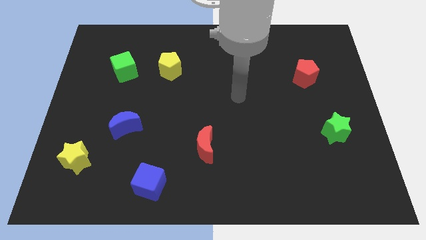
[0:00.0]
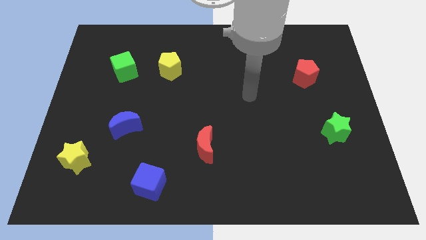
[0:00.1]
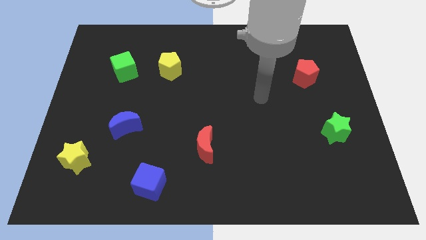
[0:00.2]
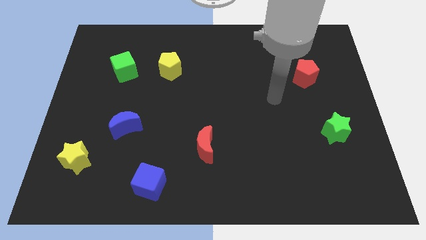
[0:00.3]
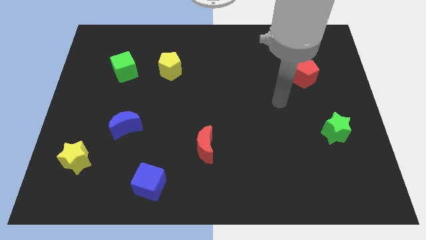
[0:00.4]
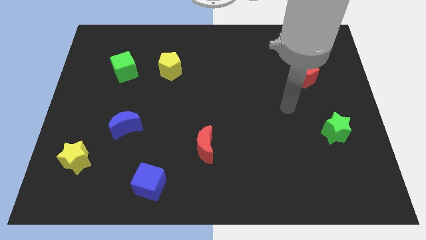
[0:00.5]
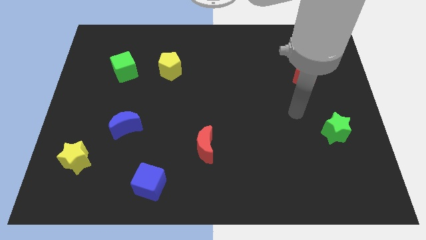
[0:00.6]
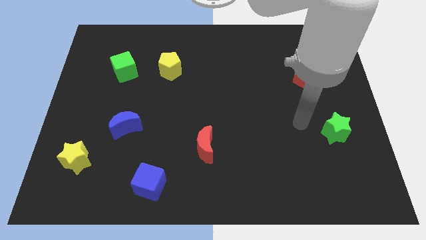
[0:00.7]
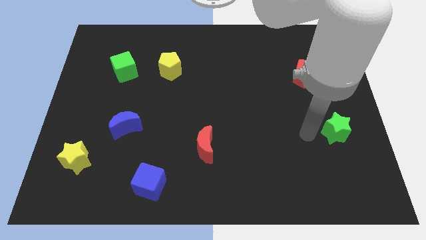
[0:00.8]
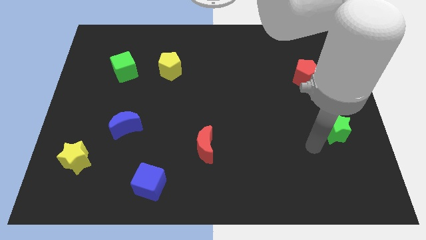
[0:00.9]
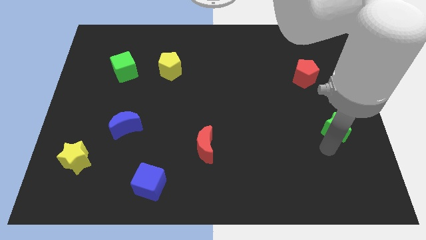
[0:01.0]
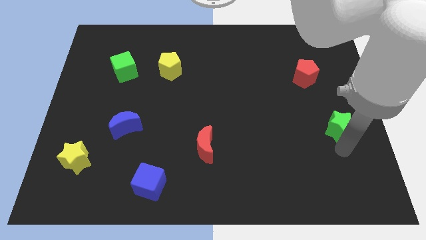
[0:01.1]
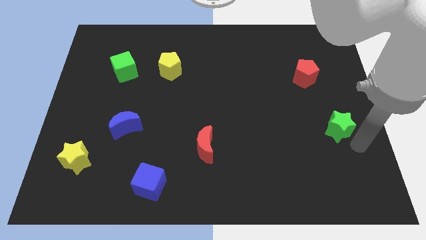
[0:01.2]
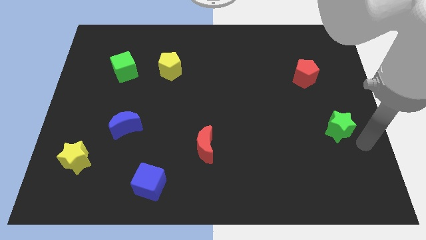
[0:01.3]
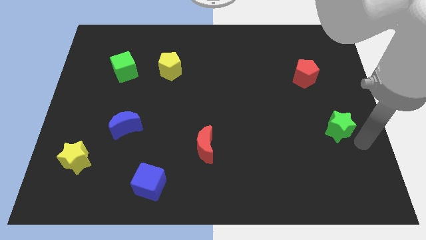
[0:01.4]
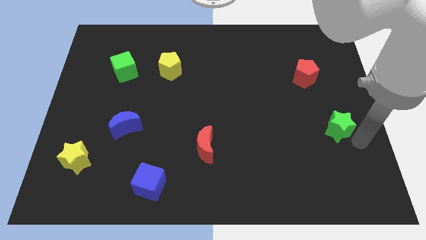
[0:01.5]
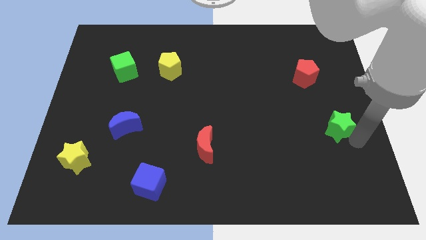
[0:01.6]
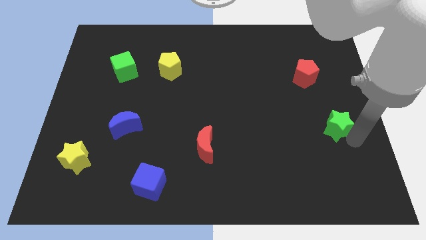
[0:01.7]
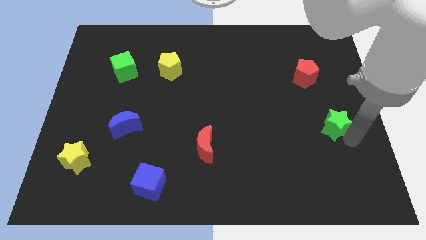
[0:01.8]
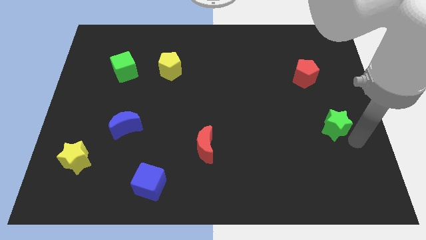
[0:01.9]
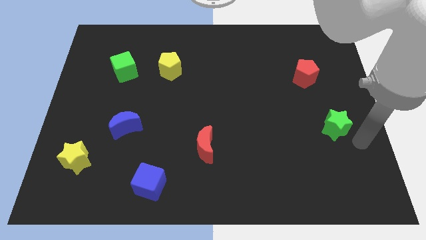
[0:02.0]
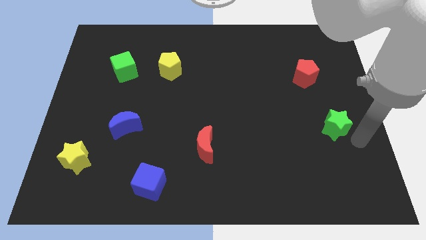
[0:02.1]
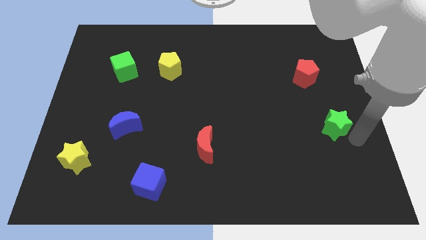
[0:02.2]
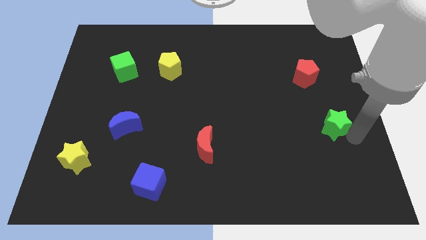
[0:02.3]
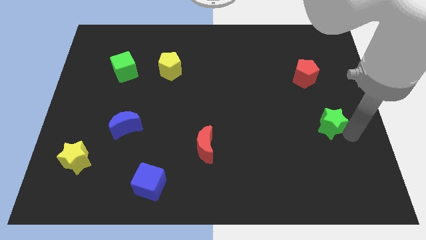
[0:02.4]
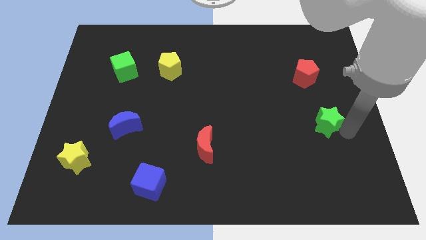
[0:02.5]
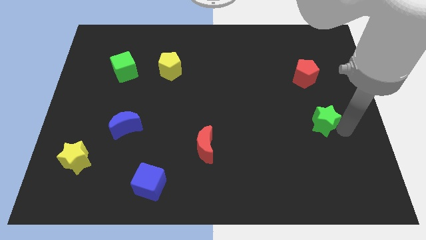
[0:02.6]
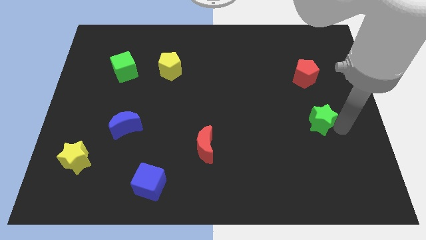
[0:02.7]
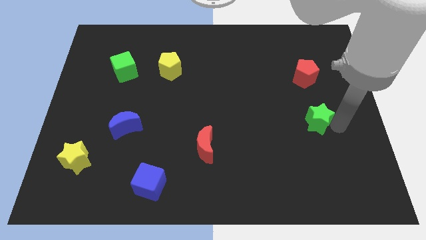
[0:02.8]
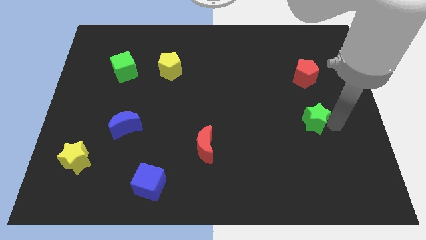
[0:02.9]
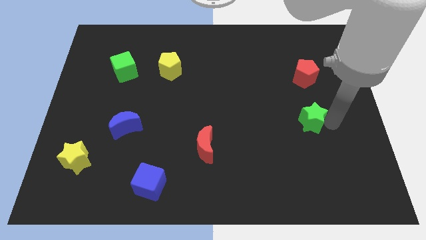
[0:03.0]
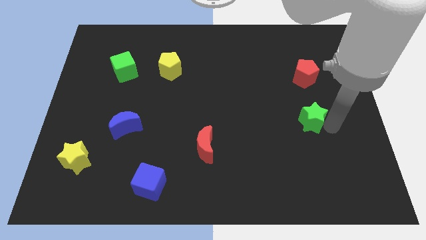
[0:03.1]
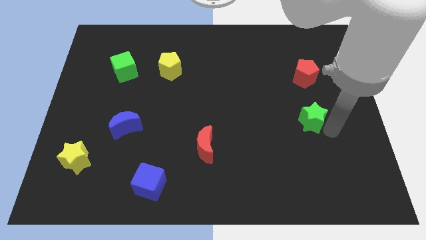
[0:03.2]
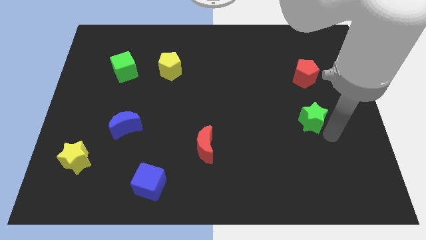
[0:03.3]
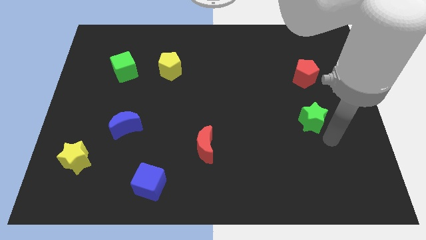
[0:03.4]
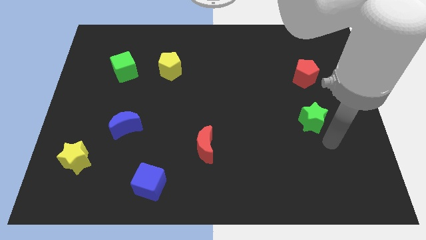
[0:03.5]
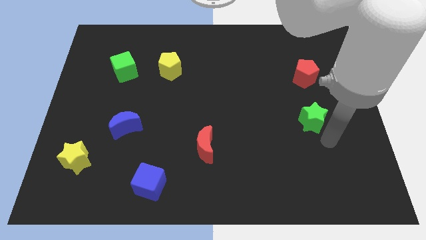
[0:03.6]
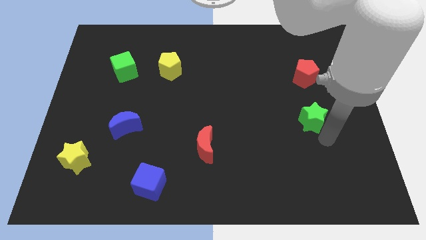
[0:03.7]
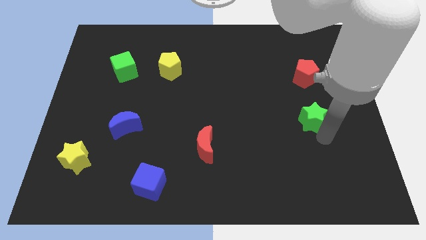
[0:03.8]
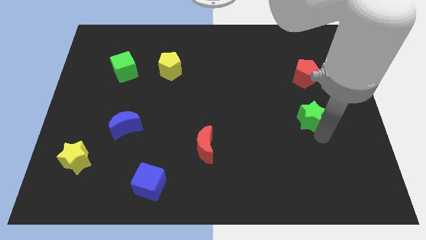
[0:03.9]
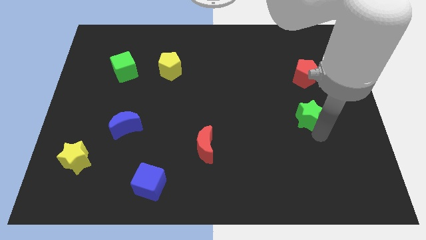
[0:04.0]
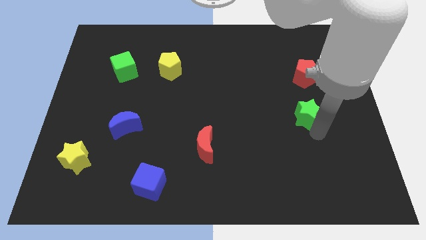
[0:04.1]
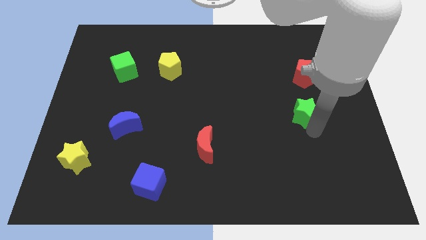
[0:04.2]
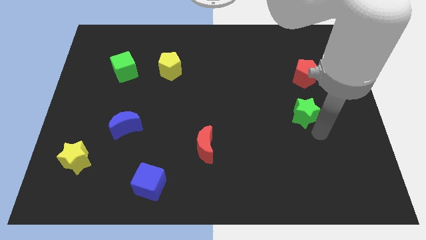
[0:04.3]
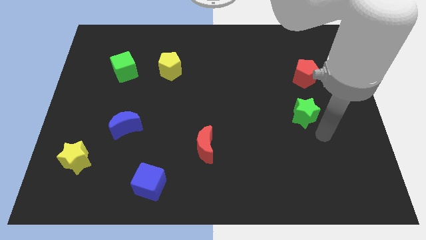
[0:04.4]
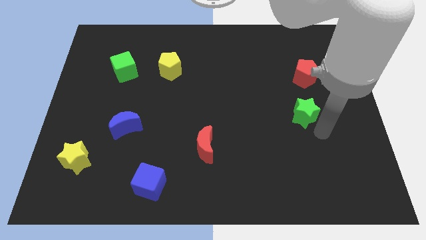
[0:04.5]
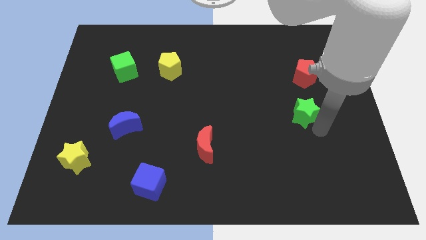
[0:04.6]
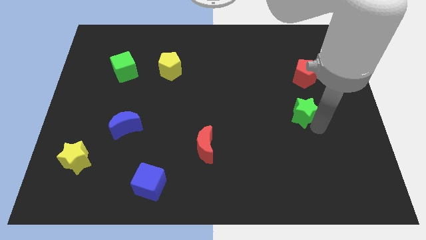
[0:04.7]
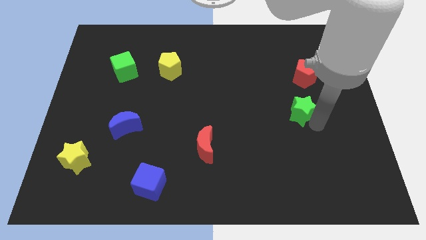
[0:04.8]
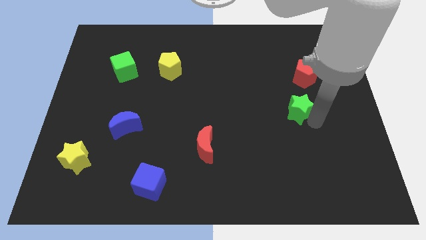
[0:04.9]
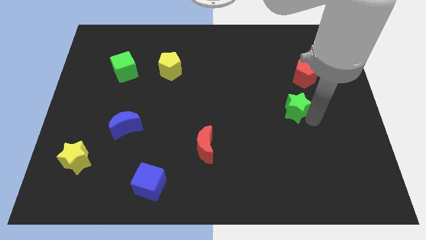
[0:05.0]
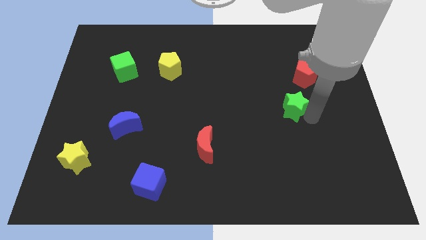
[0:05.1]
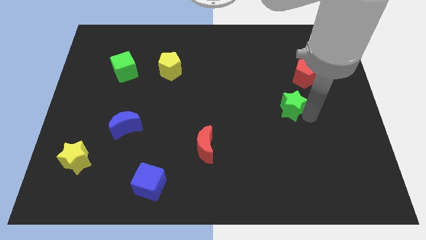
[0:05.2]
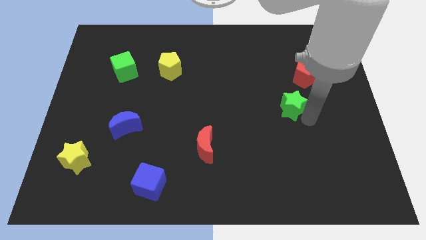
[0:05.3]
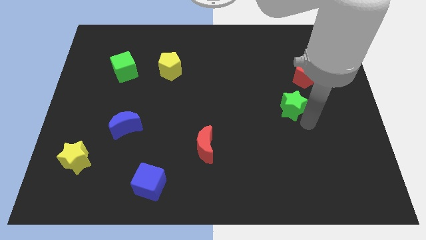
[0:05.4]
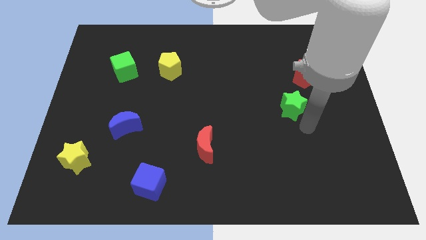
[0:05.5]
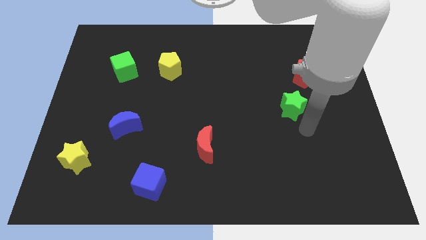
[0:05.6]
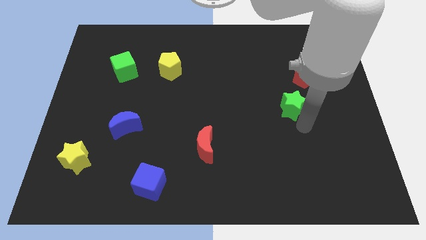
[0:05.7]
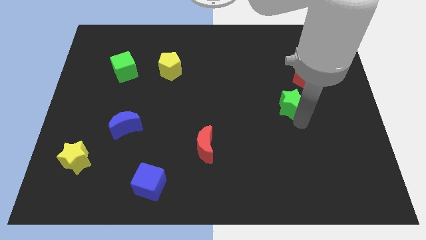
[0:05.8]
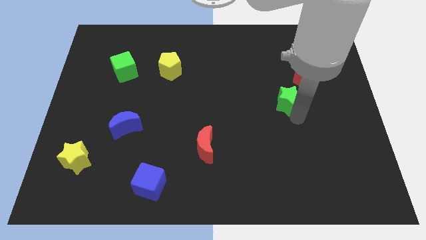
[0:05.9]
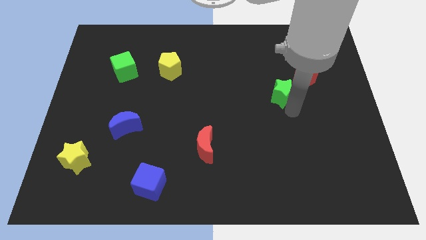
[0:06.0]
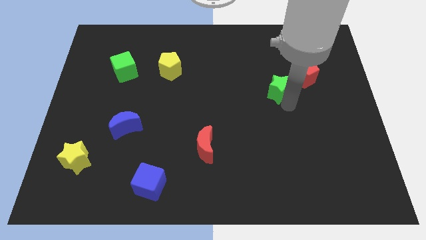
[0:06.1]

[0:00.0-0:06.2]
slide the green star to the left side of the red pentagon

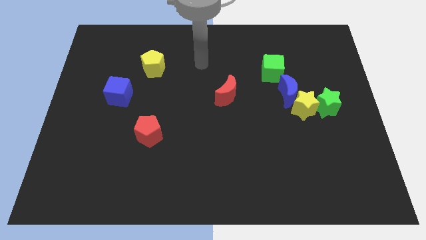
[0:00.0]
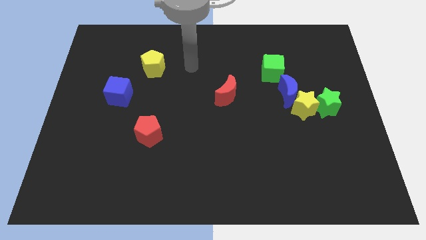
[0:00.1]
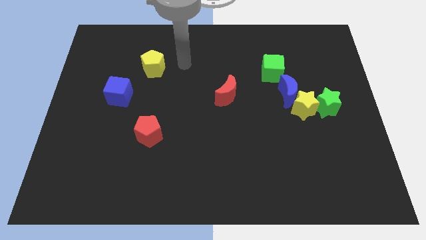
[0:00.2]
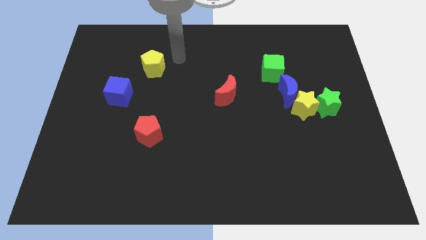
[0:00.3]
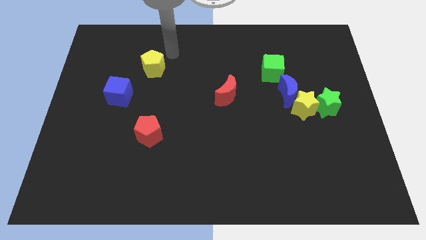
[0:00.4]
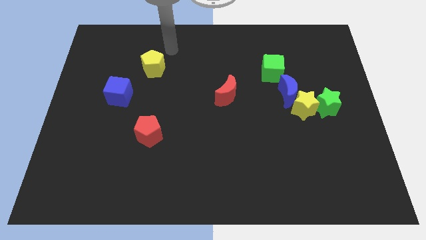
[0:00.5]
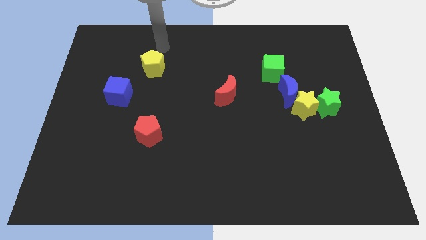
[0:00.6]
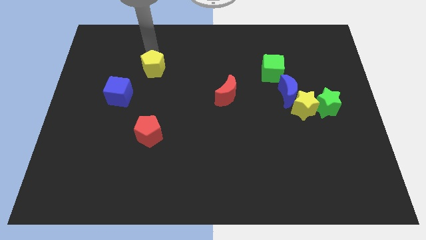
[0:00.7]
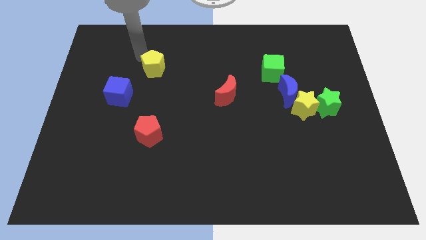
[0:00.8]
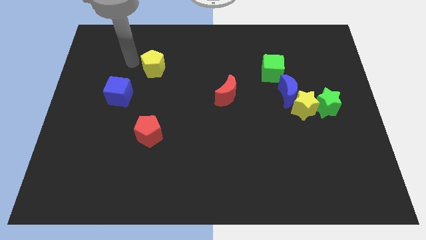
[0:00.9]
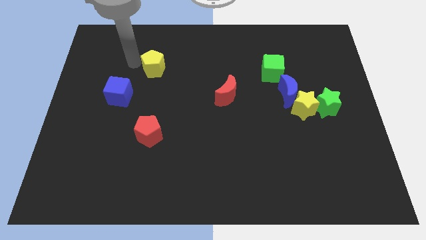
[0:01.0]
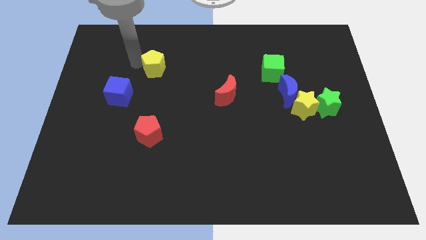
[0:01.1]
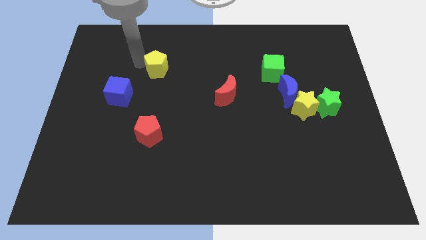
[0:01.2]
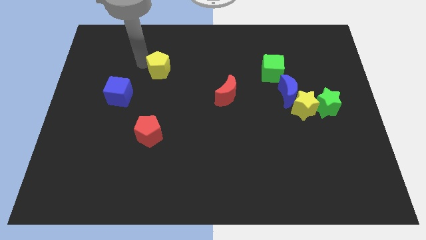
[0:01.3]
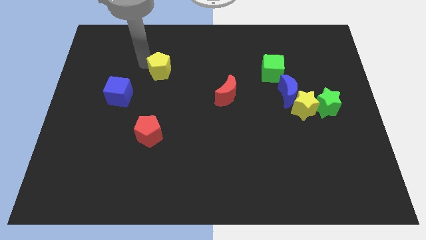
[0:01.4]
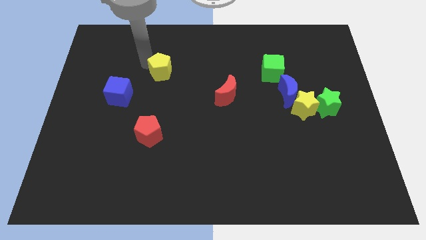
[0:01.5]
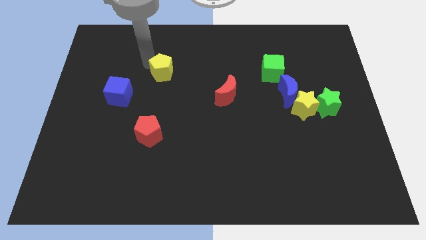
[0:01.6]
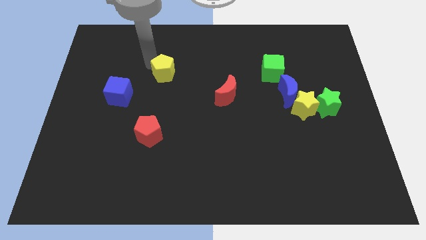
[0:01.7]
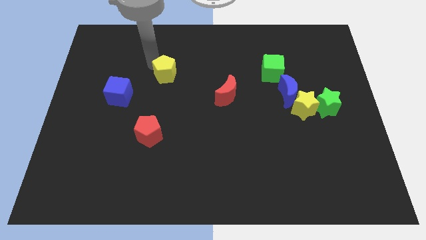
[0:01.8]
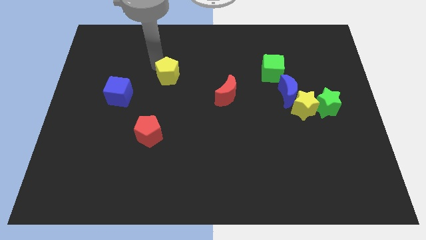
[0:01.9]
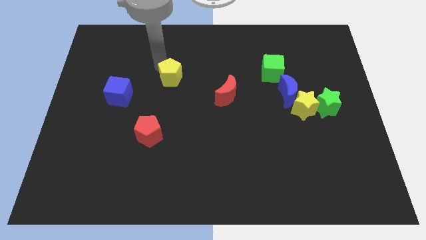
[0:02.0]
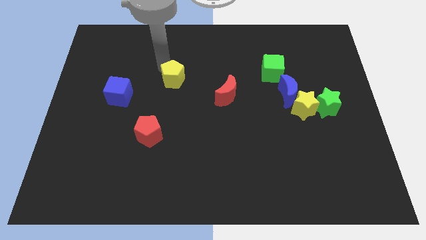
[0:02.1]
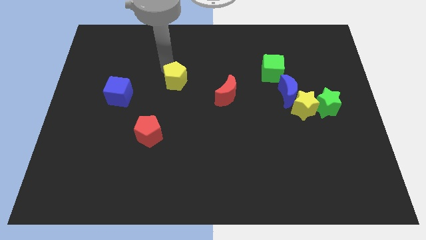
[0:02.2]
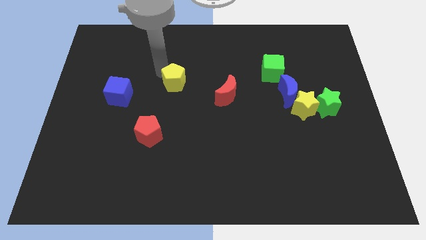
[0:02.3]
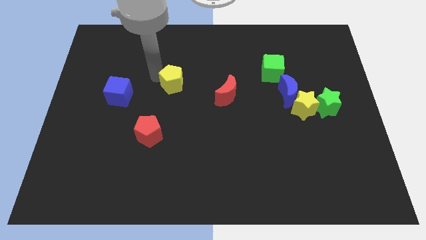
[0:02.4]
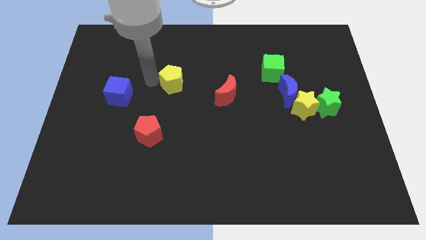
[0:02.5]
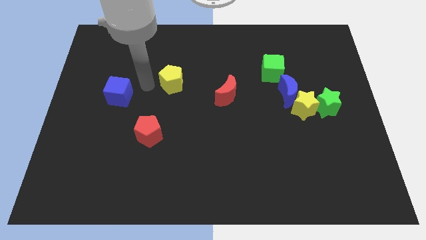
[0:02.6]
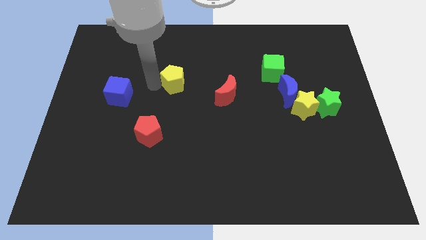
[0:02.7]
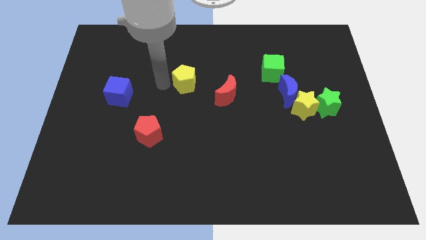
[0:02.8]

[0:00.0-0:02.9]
push the yellow pentagon diagonally up and to the left of the red moon
